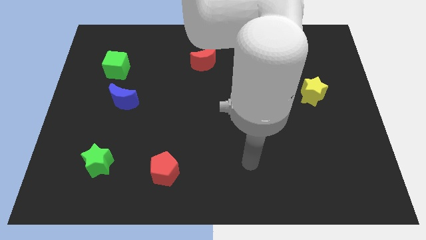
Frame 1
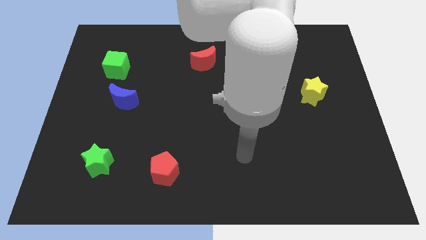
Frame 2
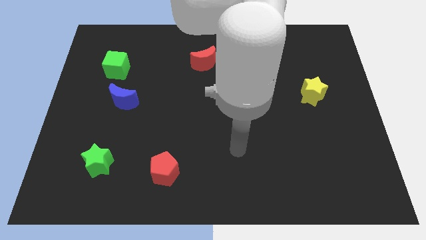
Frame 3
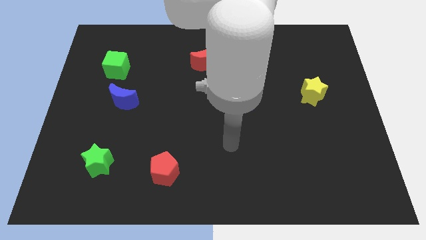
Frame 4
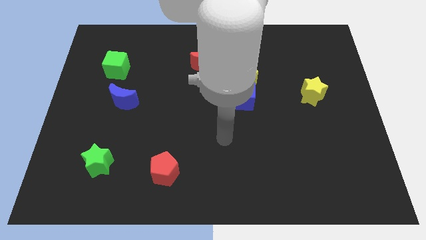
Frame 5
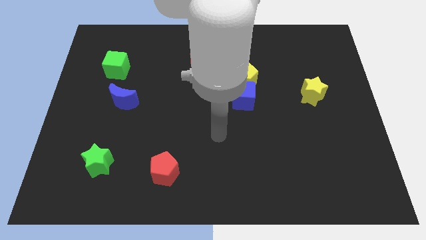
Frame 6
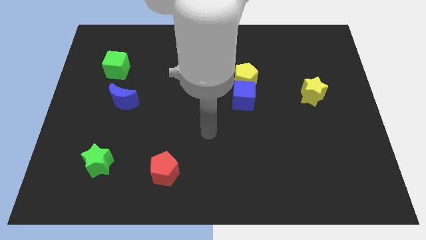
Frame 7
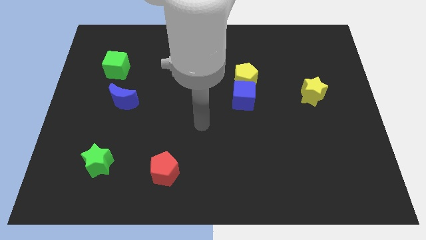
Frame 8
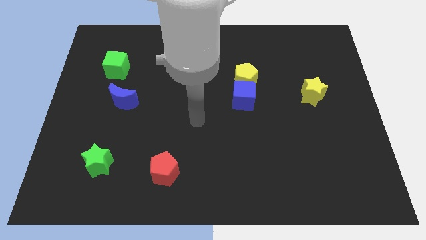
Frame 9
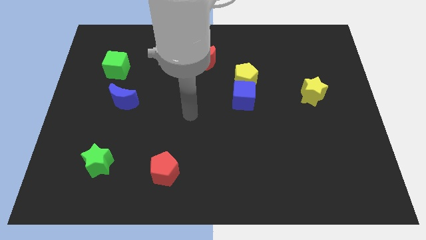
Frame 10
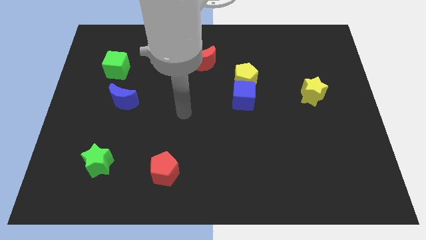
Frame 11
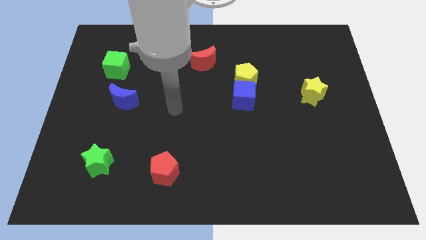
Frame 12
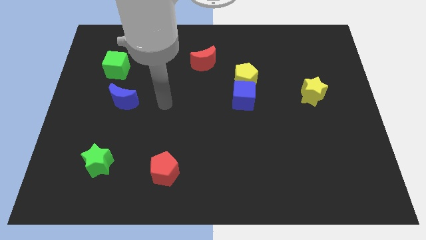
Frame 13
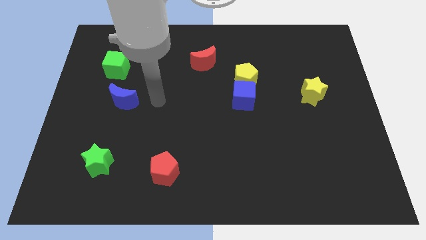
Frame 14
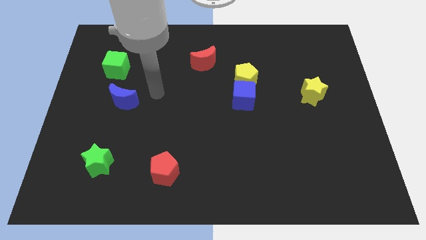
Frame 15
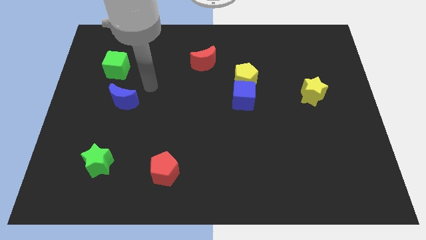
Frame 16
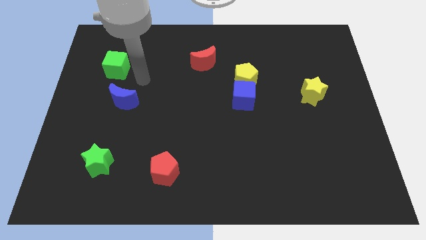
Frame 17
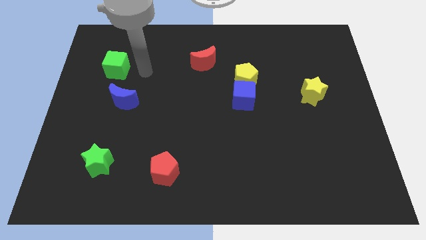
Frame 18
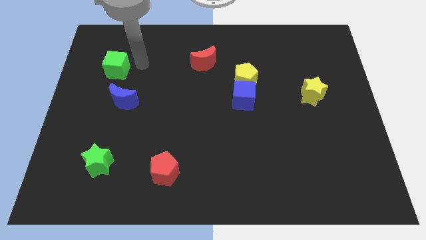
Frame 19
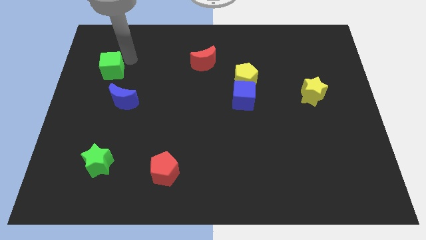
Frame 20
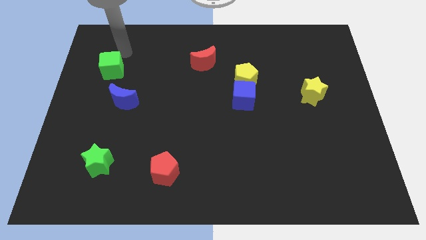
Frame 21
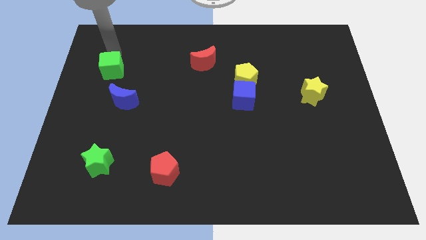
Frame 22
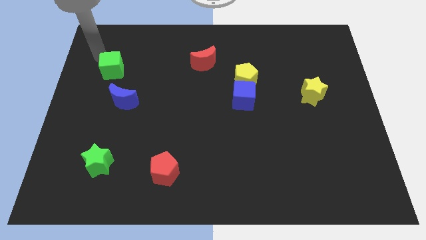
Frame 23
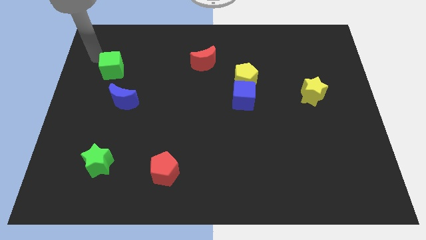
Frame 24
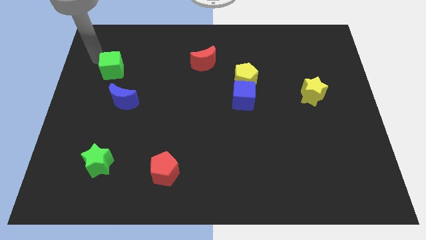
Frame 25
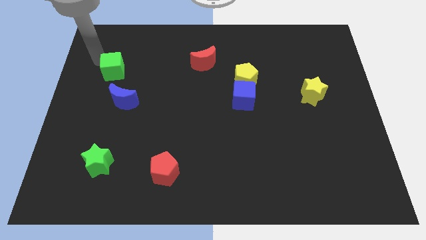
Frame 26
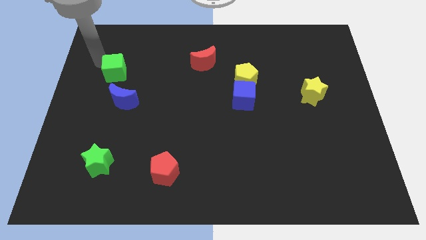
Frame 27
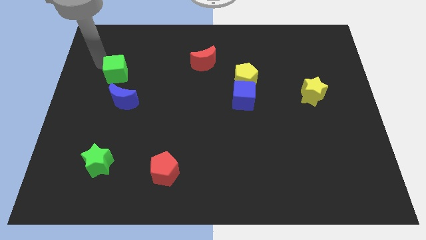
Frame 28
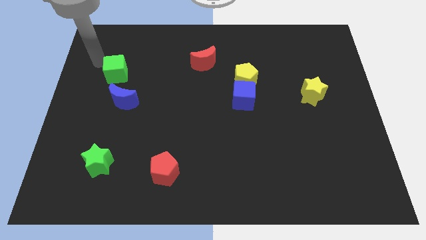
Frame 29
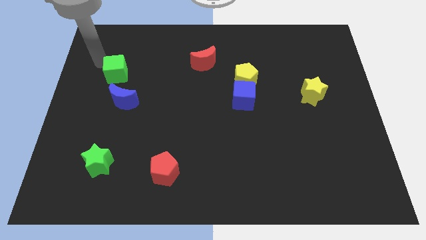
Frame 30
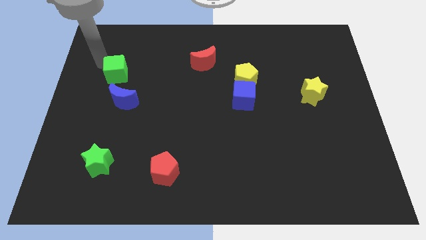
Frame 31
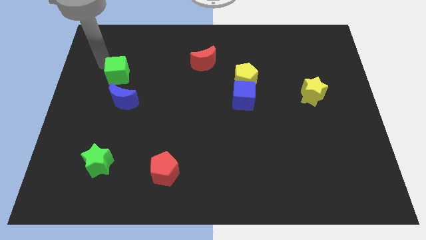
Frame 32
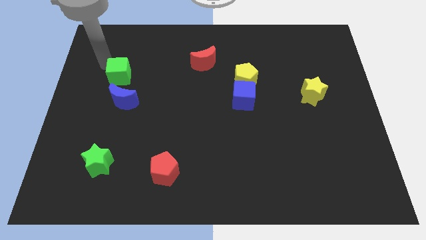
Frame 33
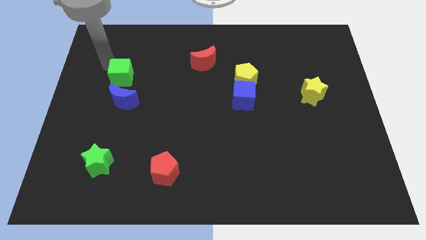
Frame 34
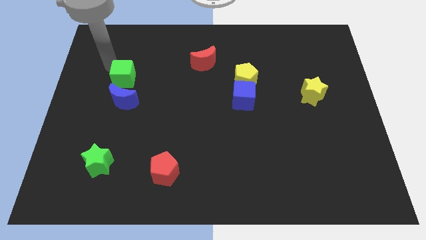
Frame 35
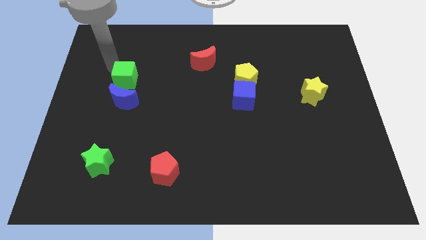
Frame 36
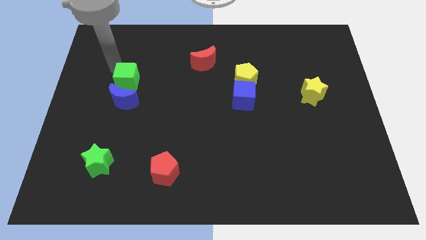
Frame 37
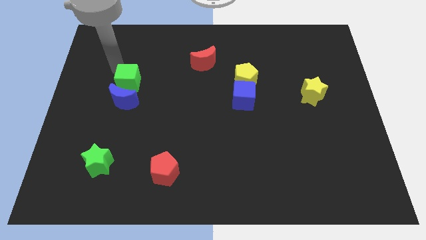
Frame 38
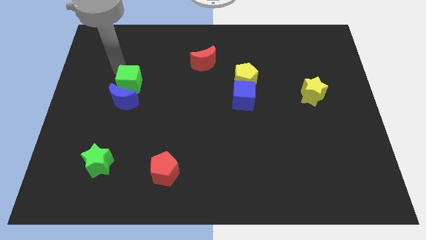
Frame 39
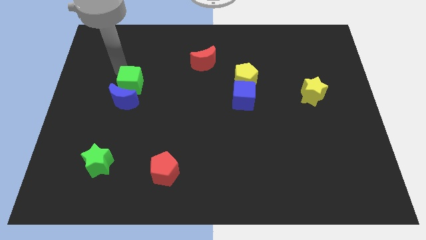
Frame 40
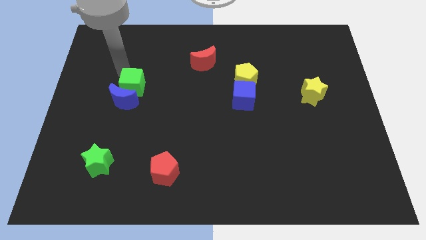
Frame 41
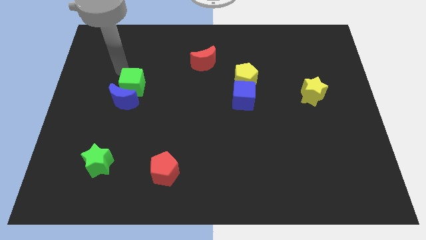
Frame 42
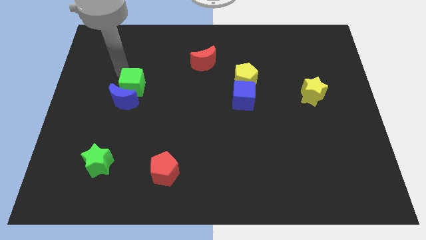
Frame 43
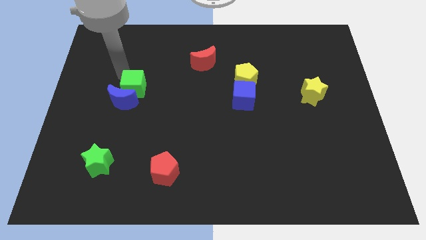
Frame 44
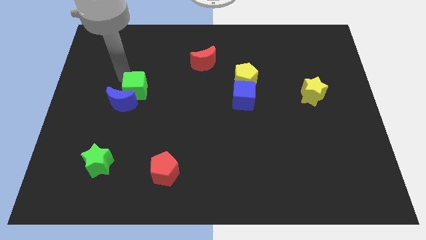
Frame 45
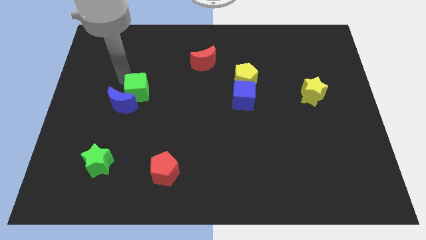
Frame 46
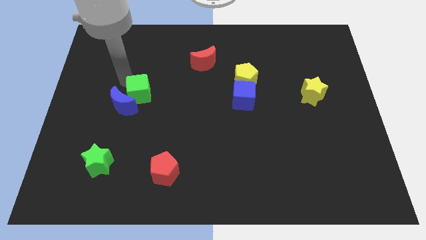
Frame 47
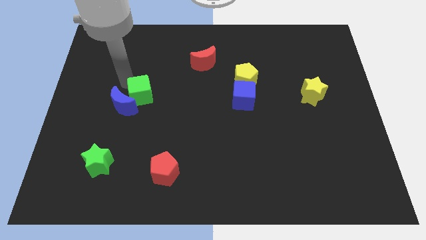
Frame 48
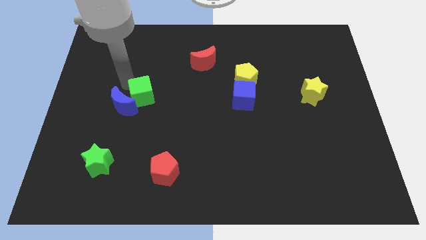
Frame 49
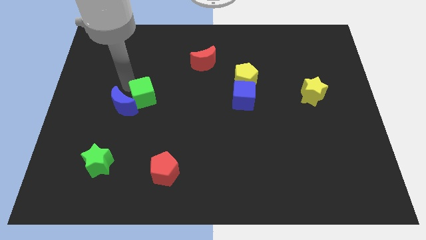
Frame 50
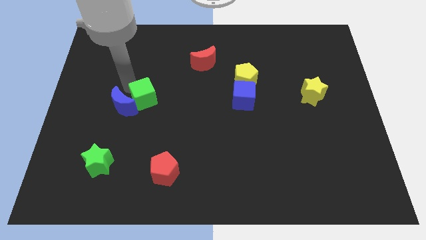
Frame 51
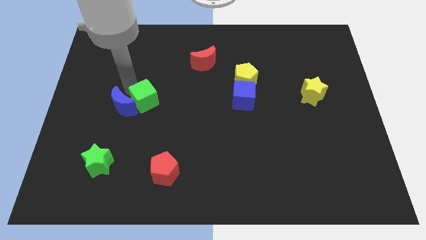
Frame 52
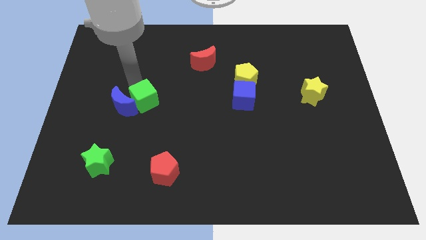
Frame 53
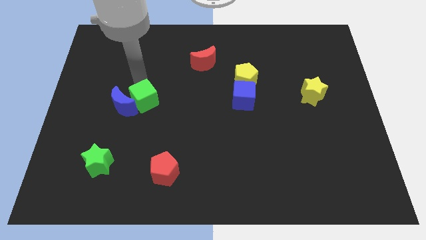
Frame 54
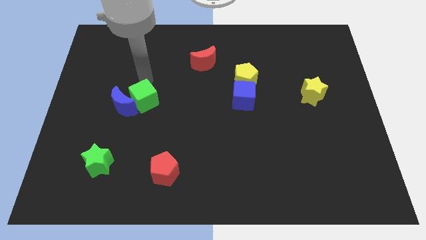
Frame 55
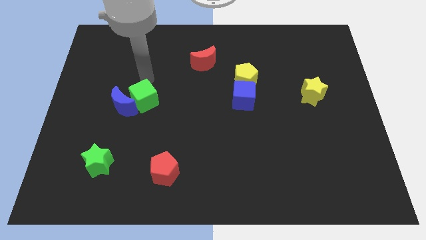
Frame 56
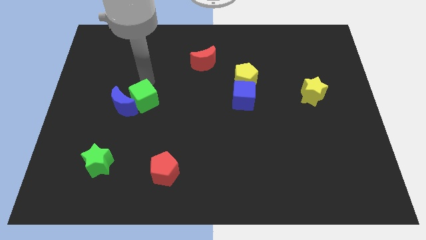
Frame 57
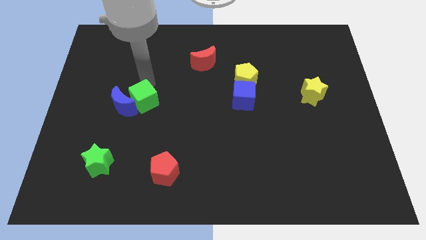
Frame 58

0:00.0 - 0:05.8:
move the green cube to the bottom right of the blue moon

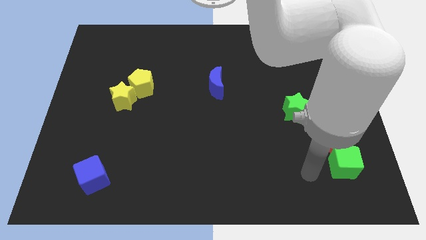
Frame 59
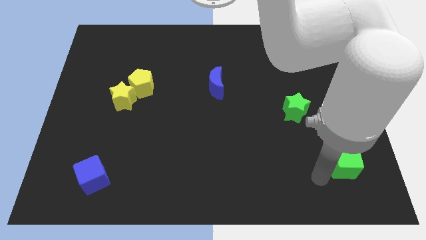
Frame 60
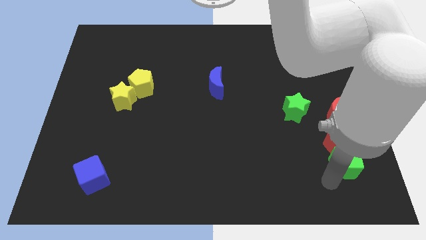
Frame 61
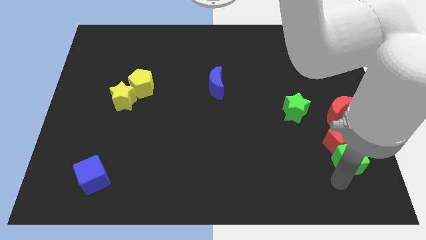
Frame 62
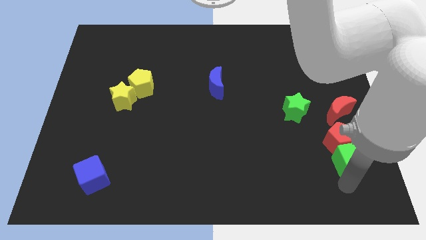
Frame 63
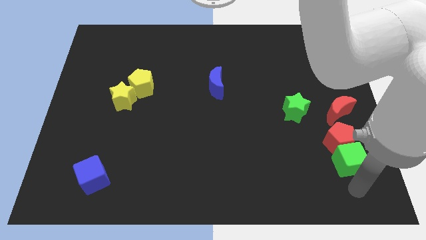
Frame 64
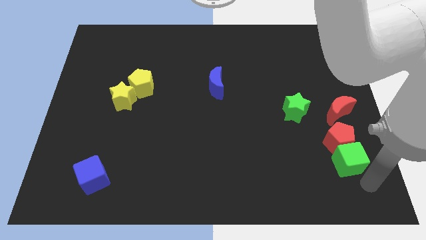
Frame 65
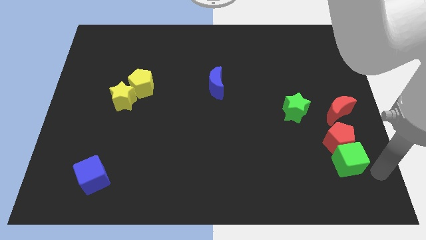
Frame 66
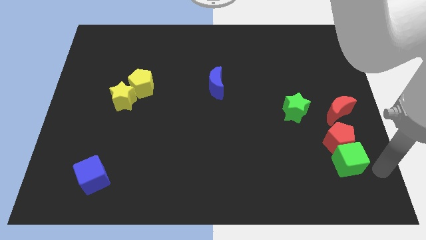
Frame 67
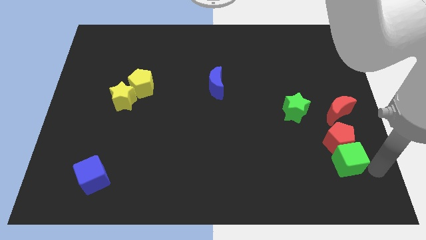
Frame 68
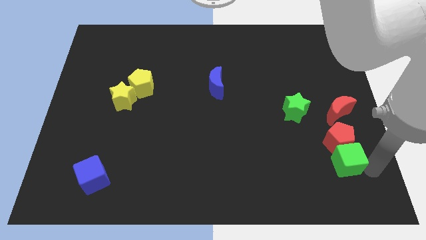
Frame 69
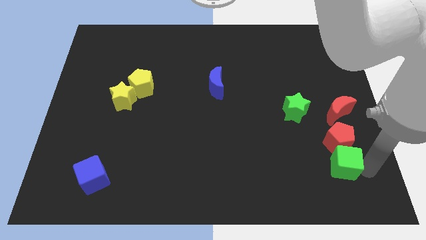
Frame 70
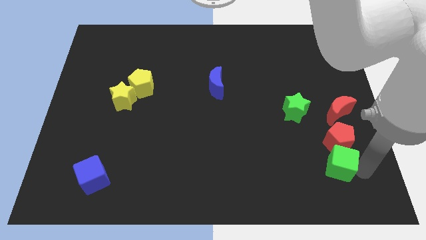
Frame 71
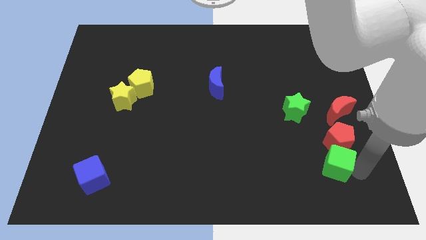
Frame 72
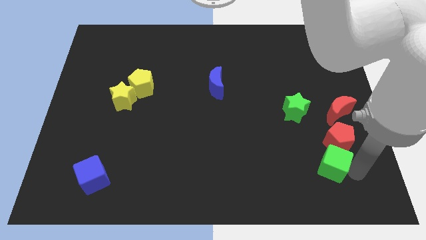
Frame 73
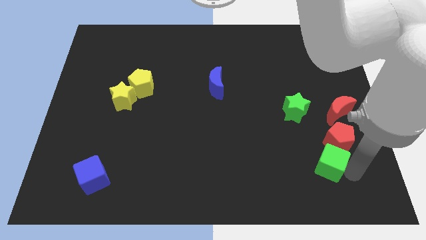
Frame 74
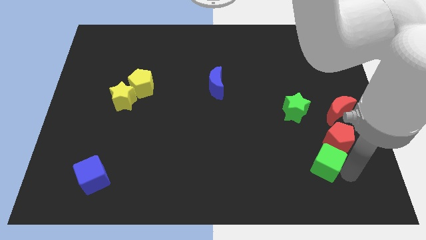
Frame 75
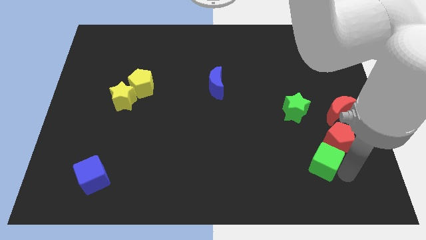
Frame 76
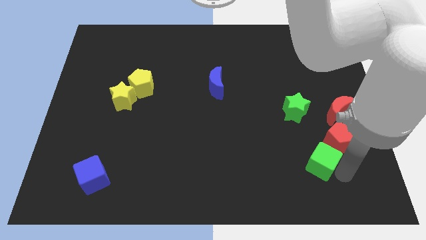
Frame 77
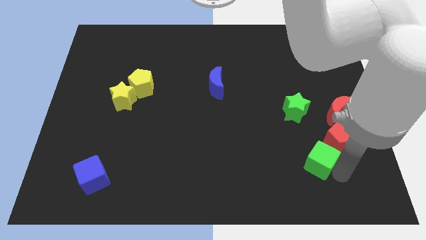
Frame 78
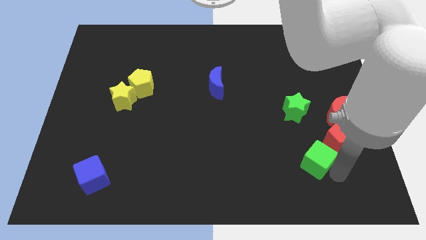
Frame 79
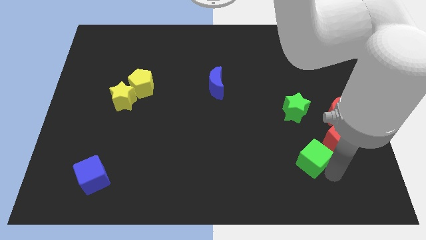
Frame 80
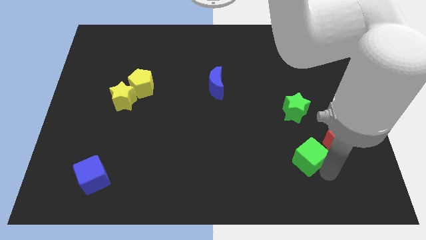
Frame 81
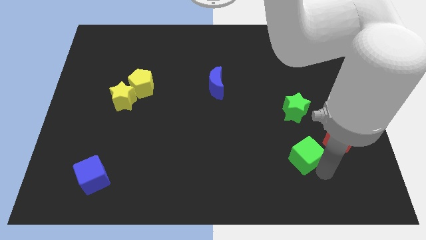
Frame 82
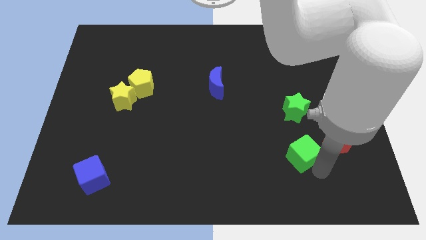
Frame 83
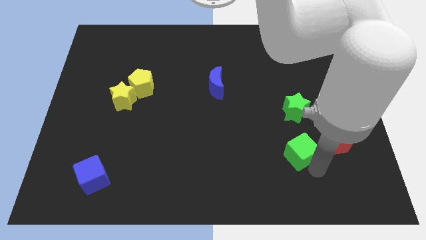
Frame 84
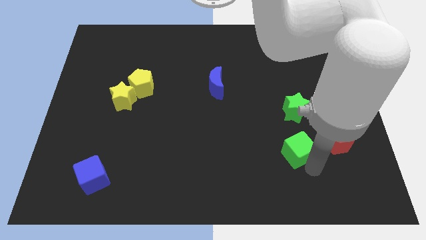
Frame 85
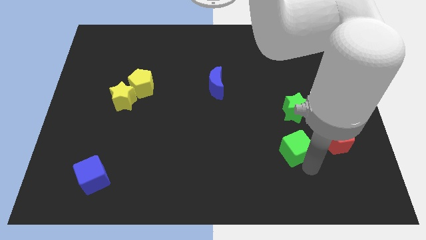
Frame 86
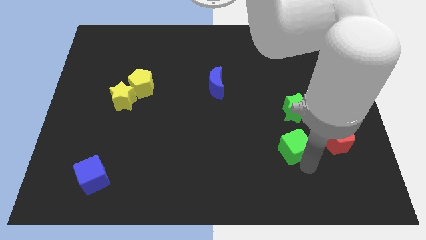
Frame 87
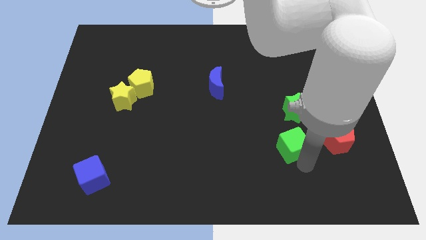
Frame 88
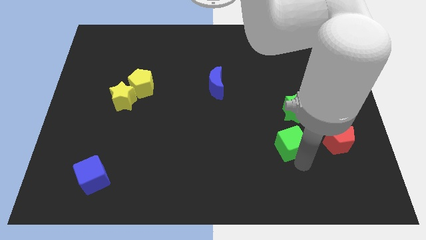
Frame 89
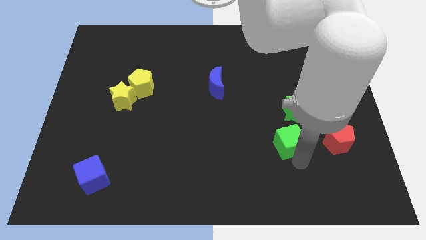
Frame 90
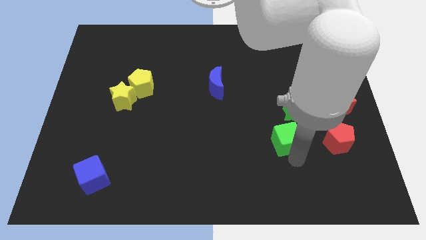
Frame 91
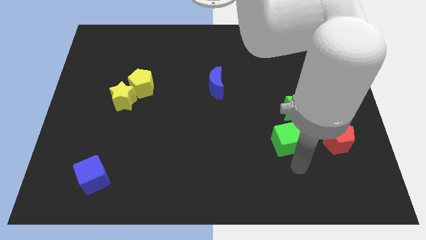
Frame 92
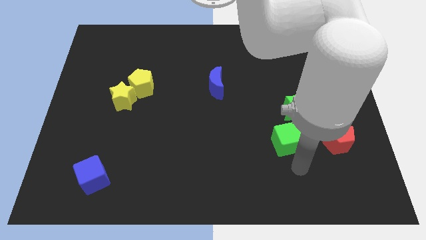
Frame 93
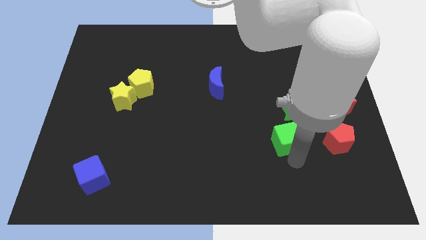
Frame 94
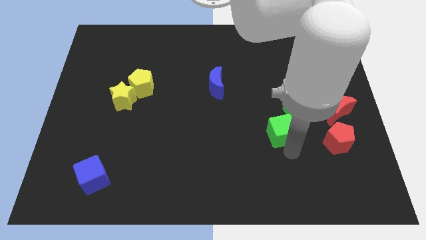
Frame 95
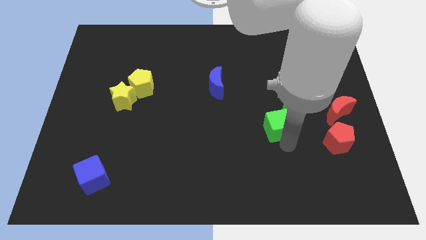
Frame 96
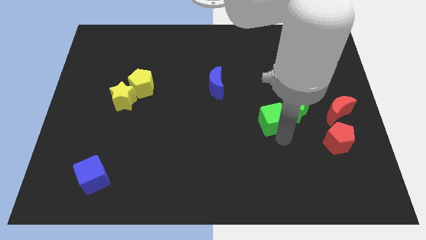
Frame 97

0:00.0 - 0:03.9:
put the green cube to the left of the red moon
